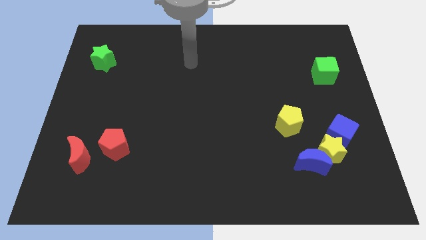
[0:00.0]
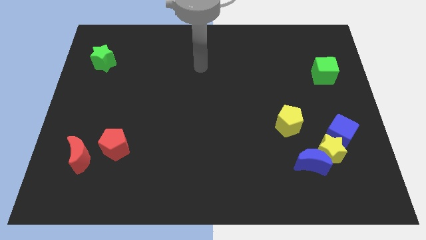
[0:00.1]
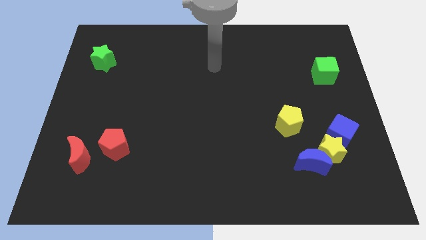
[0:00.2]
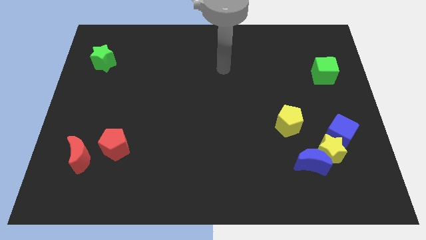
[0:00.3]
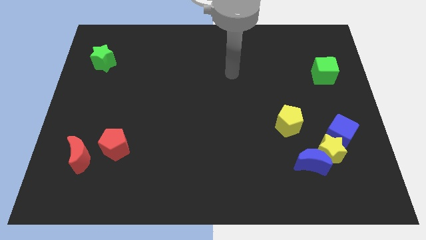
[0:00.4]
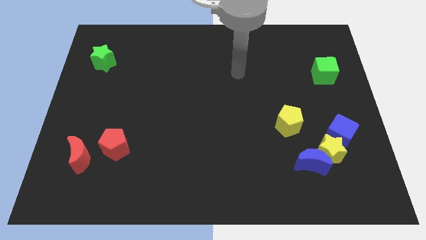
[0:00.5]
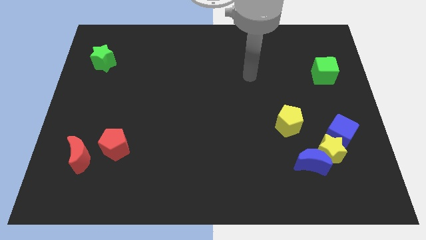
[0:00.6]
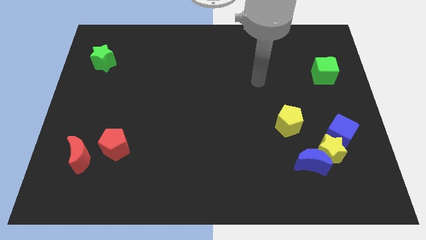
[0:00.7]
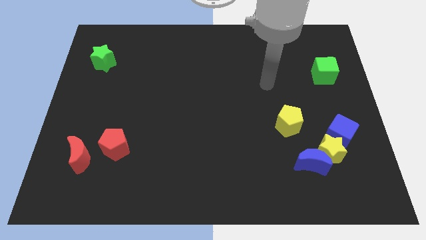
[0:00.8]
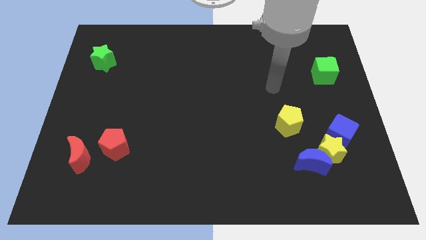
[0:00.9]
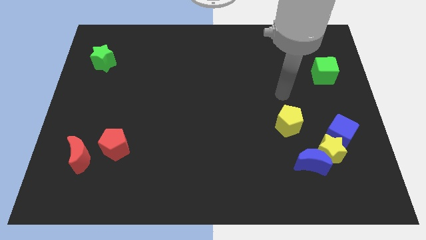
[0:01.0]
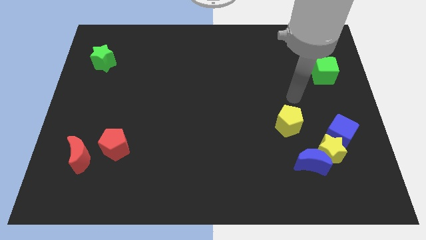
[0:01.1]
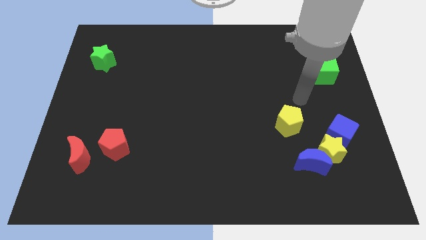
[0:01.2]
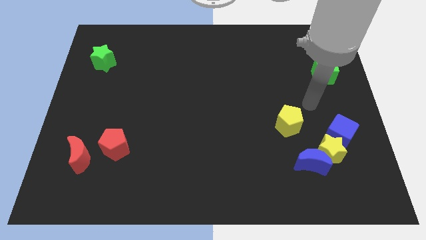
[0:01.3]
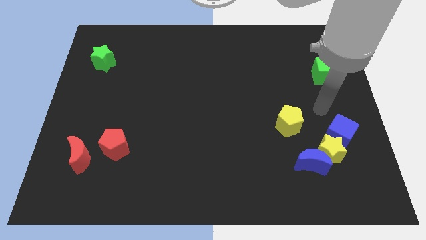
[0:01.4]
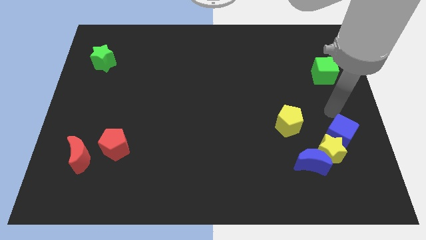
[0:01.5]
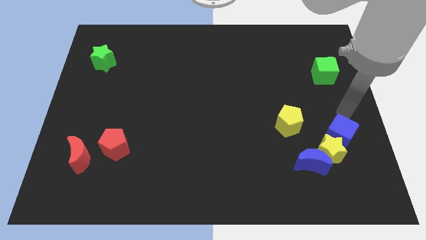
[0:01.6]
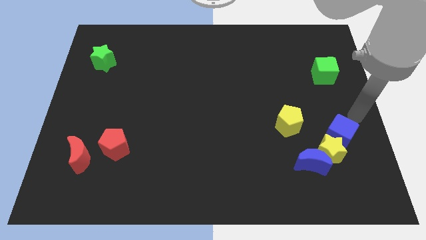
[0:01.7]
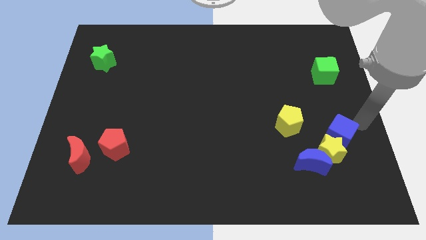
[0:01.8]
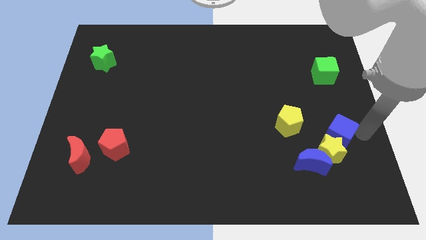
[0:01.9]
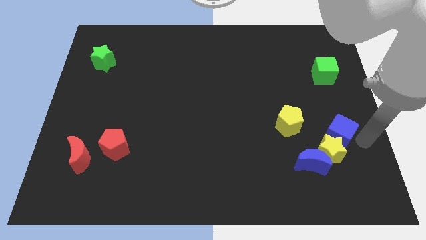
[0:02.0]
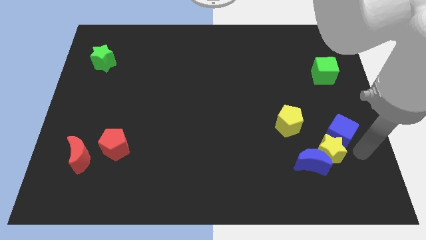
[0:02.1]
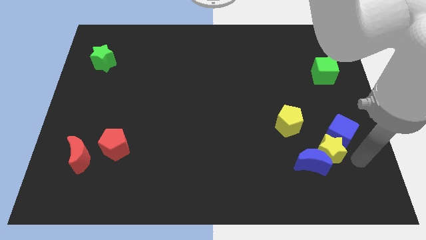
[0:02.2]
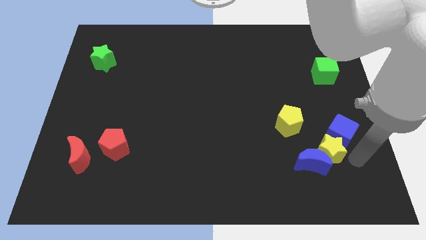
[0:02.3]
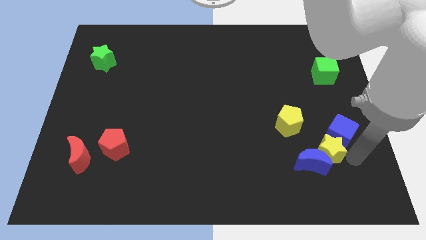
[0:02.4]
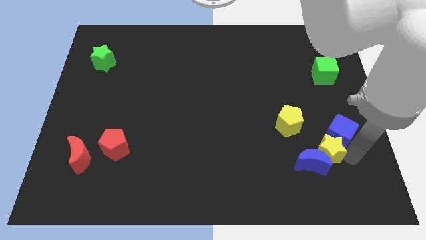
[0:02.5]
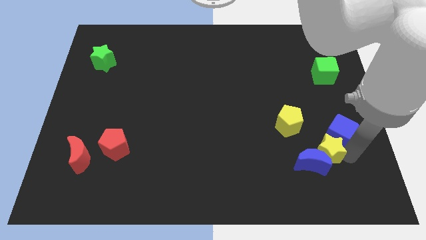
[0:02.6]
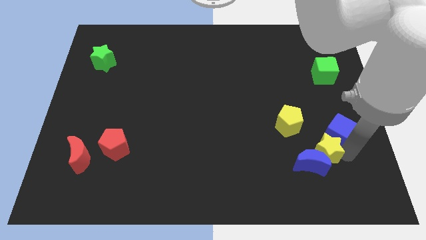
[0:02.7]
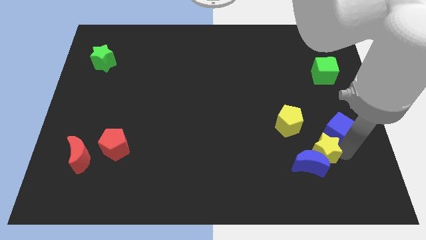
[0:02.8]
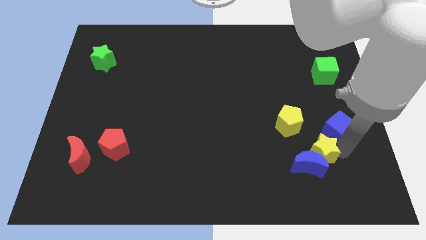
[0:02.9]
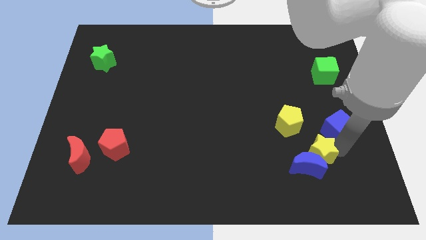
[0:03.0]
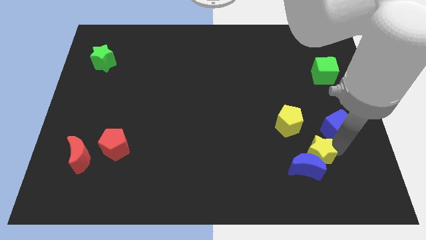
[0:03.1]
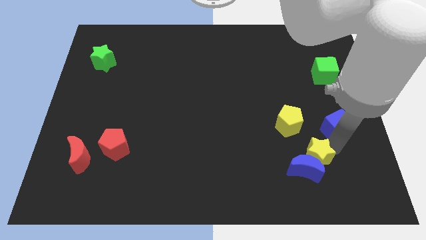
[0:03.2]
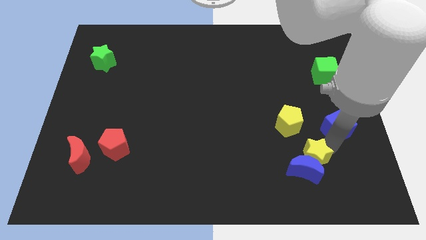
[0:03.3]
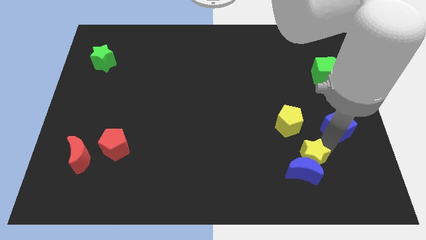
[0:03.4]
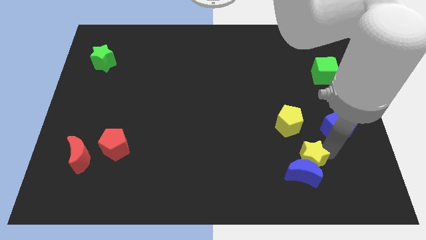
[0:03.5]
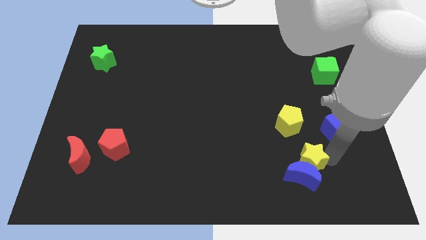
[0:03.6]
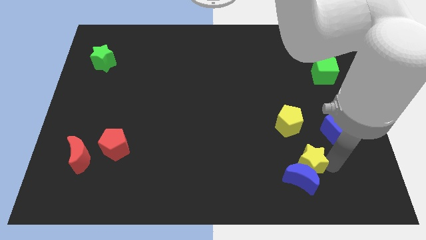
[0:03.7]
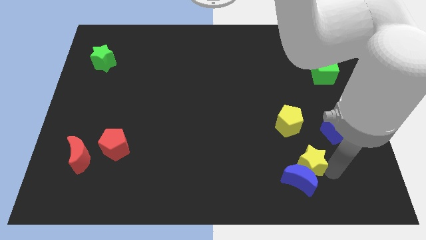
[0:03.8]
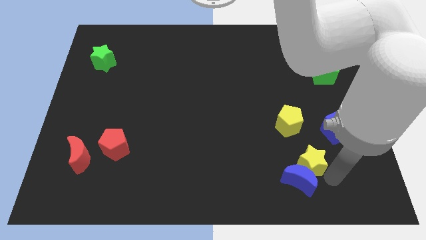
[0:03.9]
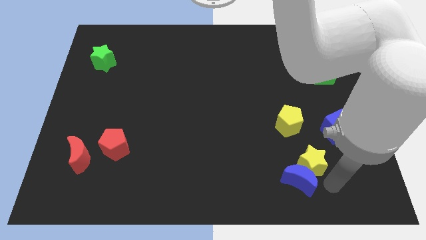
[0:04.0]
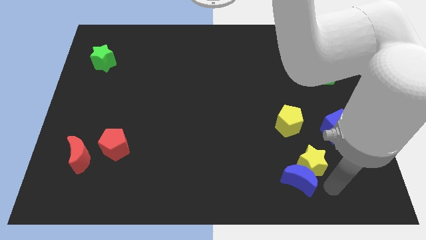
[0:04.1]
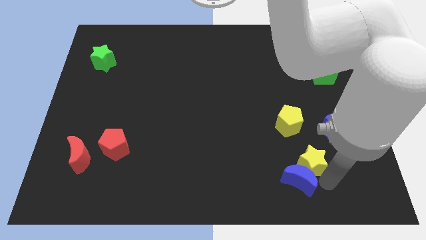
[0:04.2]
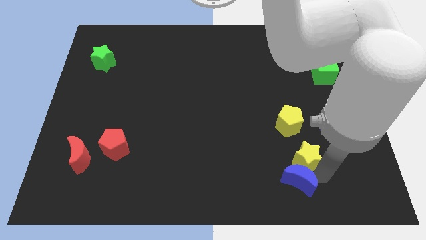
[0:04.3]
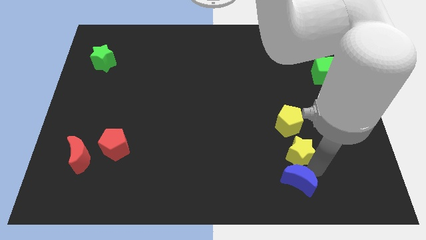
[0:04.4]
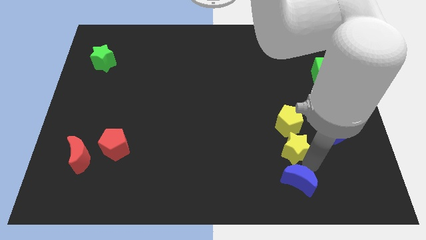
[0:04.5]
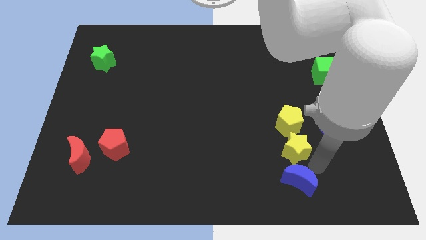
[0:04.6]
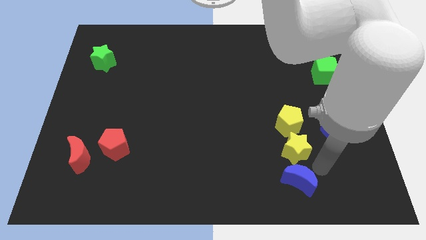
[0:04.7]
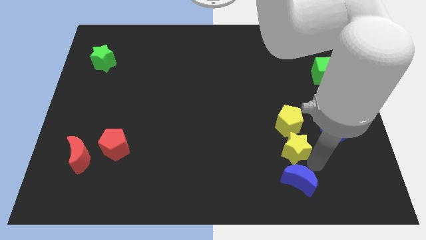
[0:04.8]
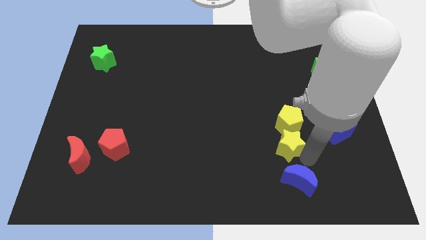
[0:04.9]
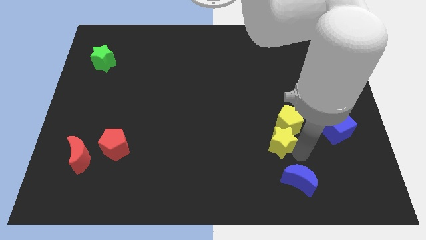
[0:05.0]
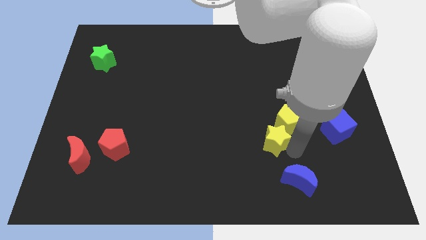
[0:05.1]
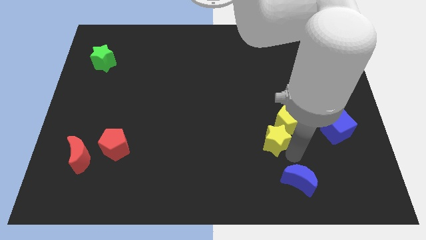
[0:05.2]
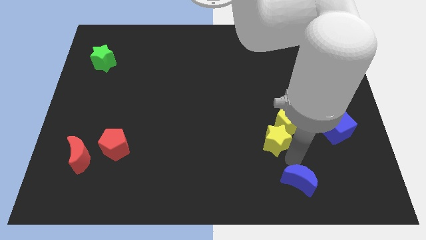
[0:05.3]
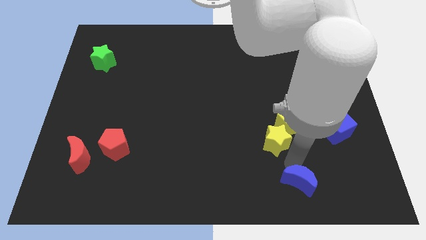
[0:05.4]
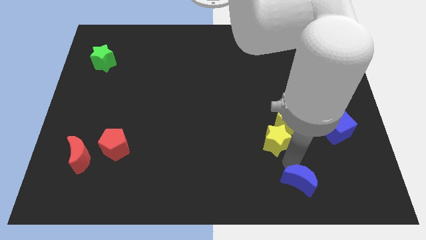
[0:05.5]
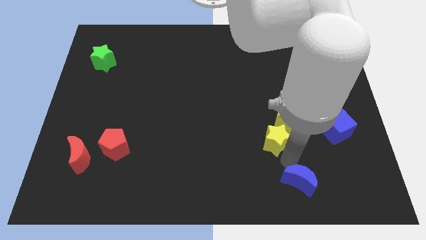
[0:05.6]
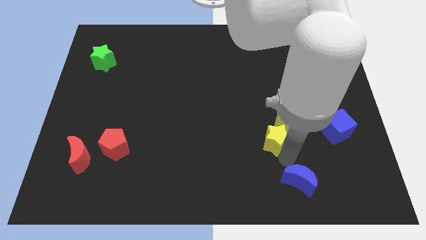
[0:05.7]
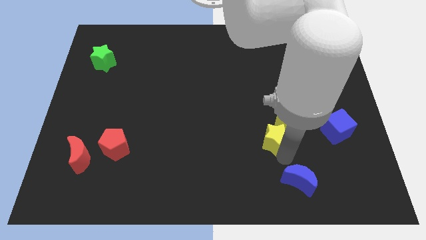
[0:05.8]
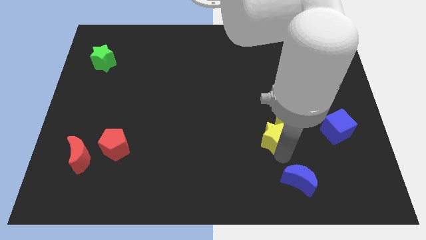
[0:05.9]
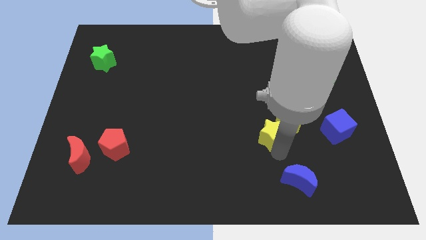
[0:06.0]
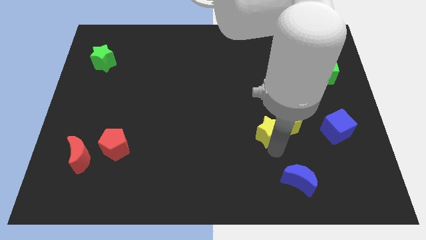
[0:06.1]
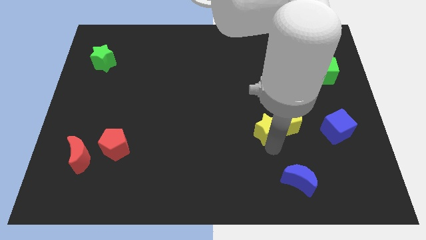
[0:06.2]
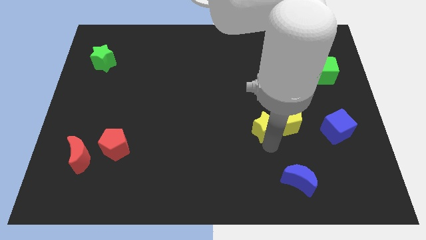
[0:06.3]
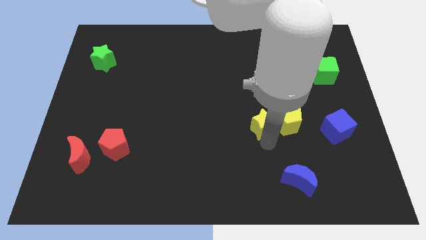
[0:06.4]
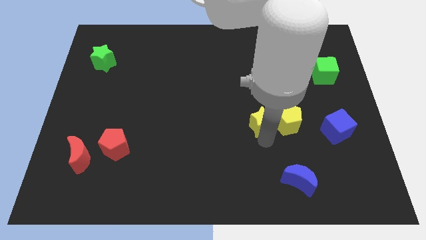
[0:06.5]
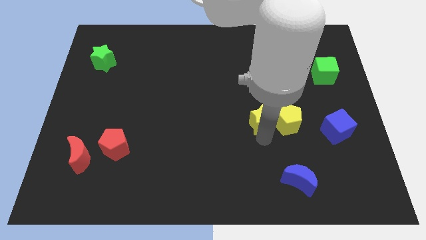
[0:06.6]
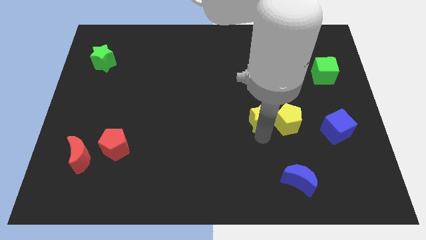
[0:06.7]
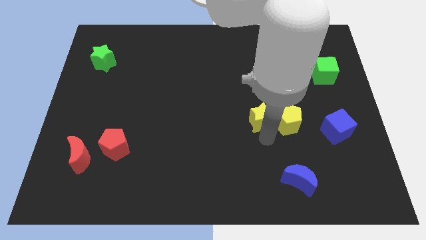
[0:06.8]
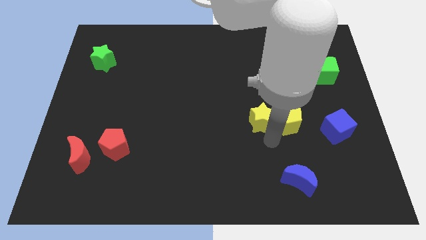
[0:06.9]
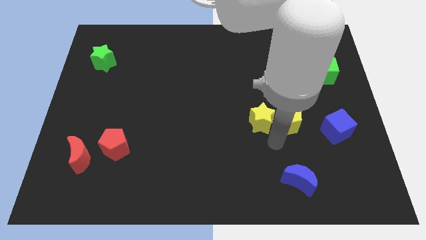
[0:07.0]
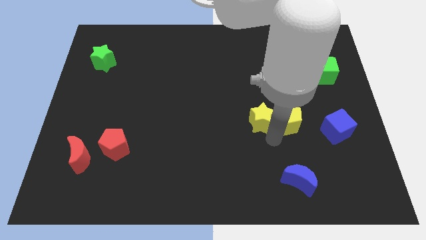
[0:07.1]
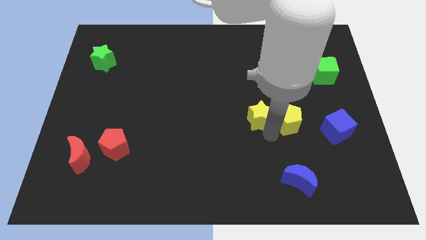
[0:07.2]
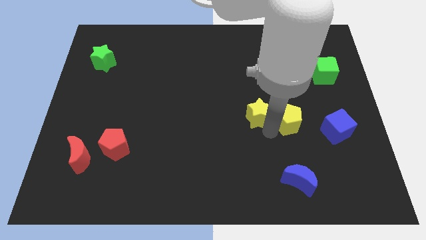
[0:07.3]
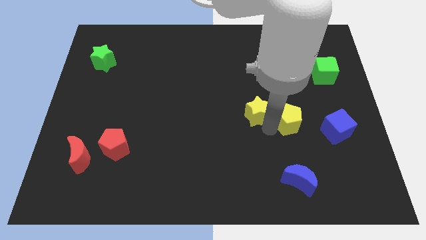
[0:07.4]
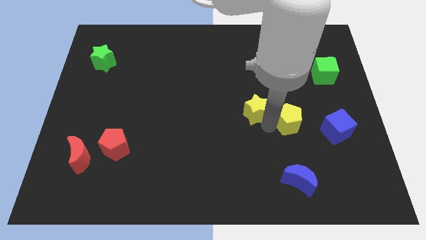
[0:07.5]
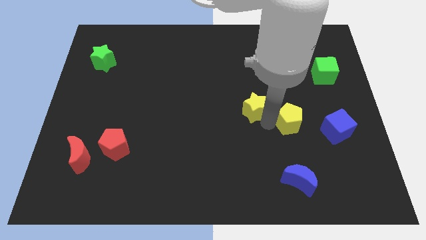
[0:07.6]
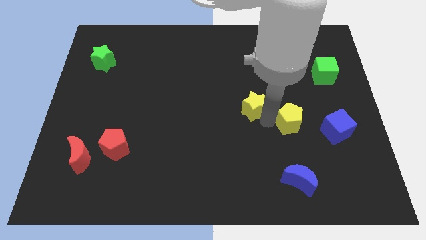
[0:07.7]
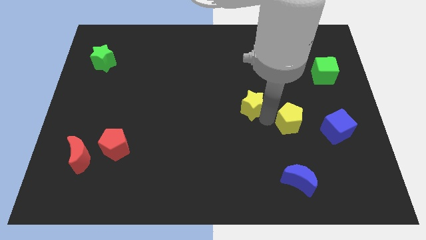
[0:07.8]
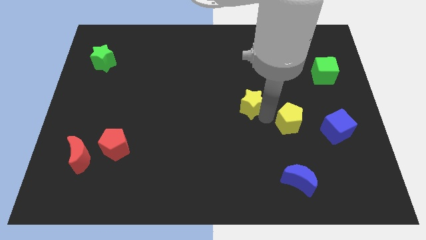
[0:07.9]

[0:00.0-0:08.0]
push the yellow star up and to the left
